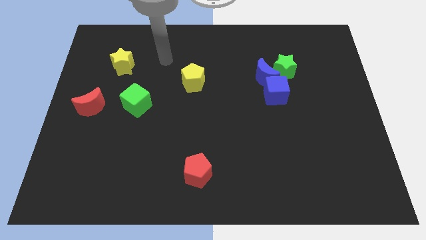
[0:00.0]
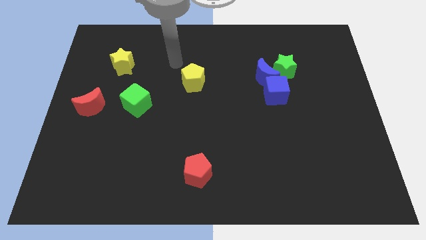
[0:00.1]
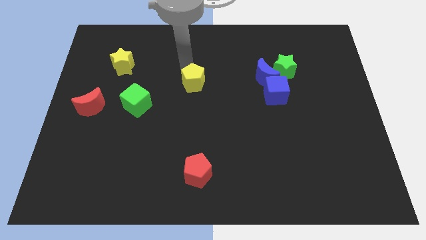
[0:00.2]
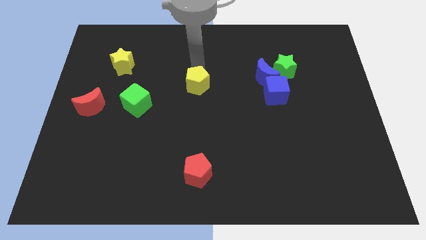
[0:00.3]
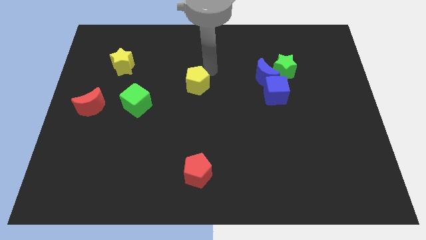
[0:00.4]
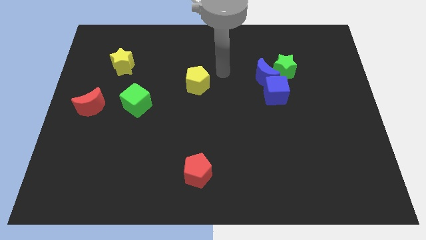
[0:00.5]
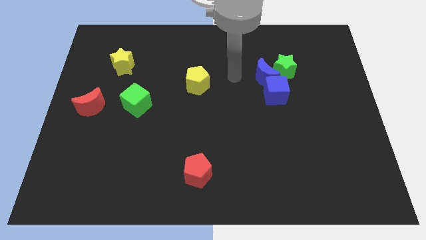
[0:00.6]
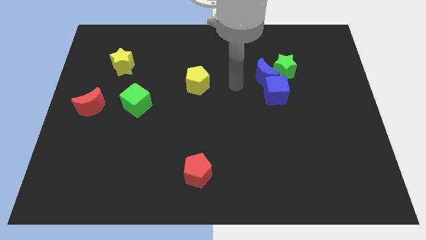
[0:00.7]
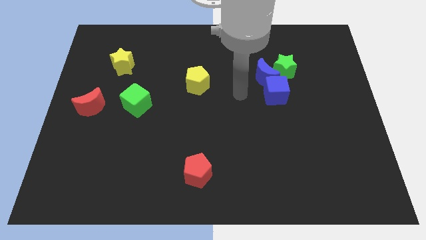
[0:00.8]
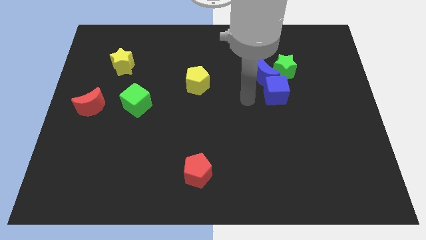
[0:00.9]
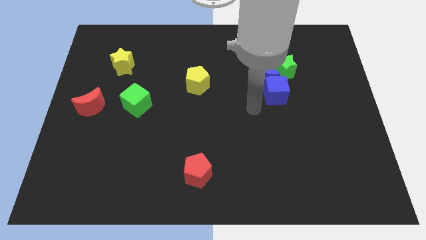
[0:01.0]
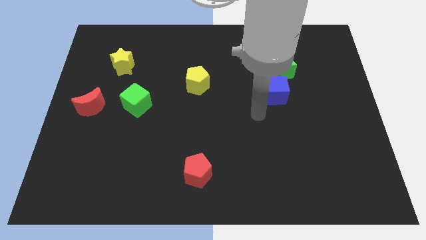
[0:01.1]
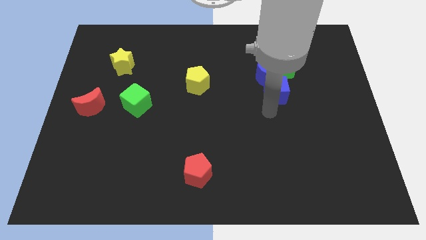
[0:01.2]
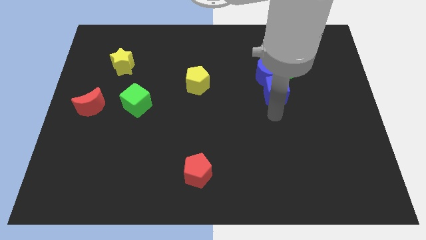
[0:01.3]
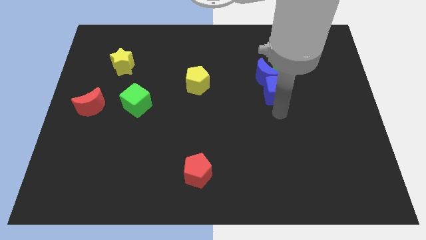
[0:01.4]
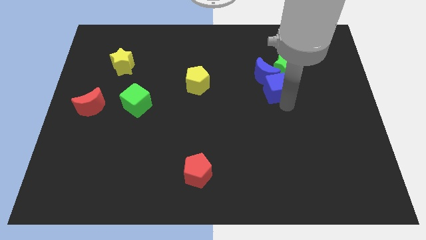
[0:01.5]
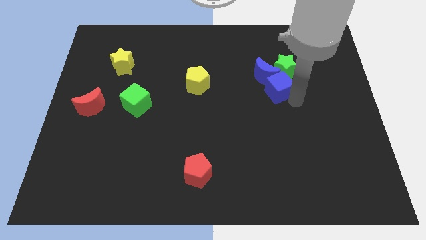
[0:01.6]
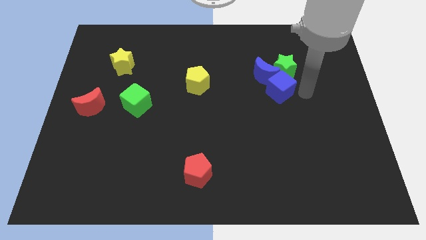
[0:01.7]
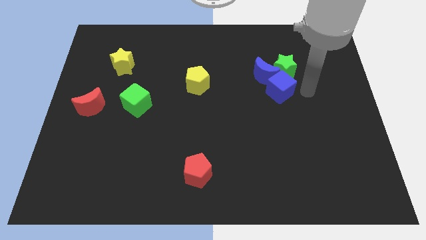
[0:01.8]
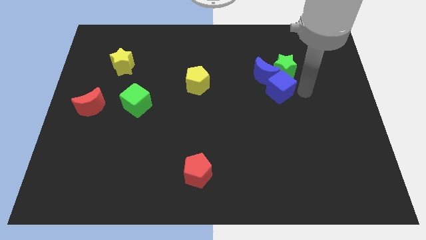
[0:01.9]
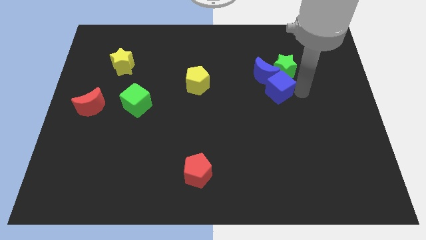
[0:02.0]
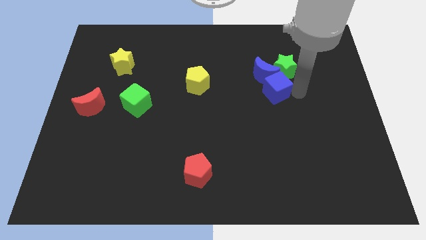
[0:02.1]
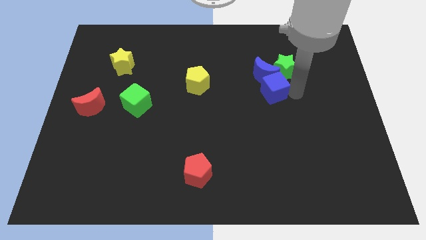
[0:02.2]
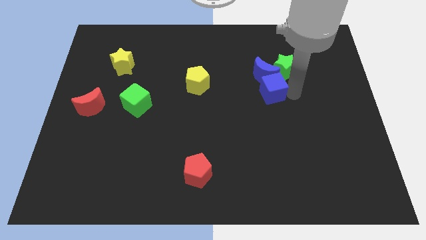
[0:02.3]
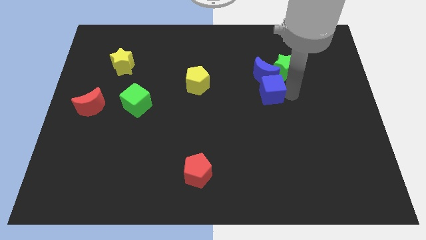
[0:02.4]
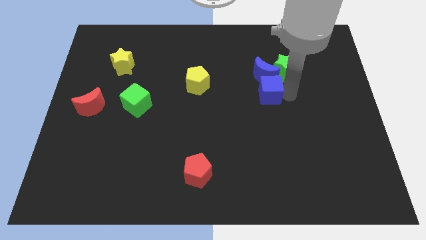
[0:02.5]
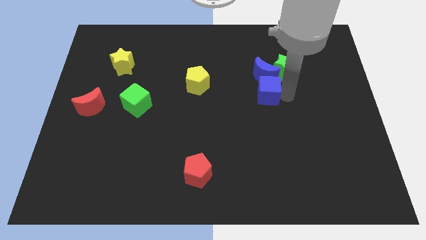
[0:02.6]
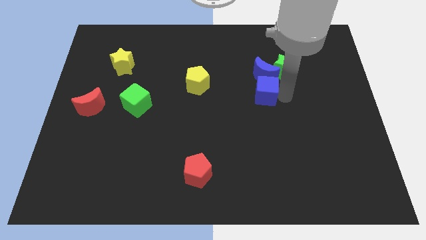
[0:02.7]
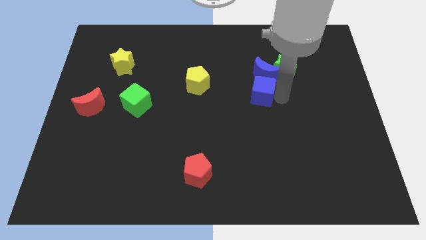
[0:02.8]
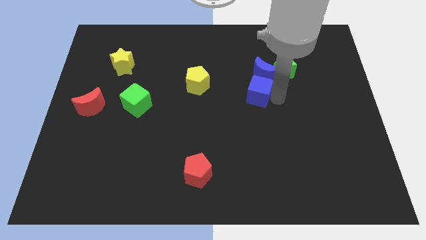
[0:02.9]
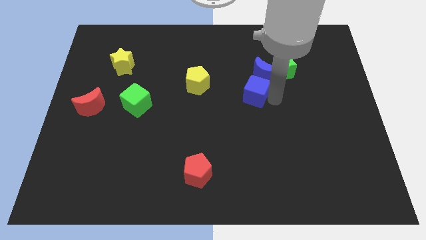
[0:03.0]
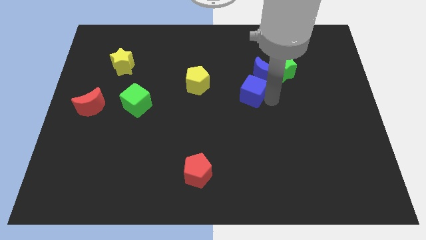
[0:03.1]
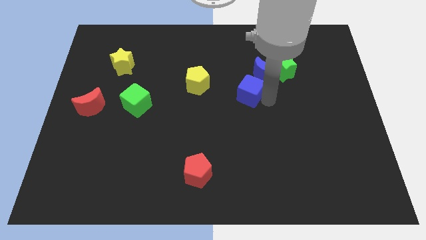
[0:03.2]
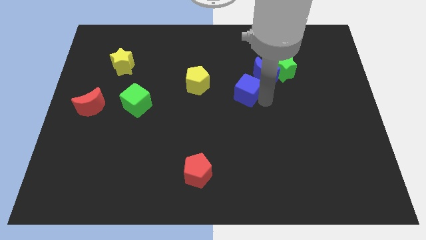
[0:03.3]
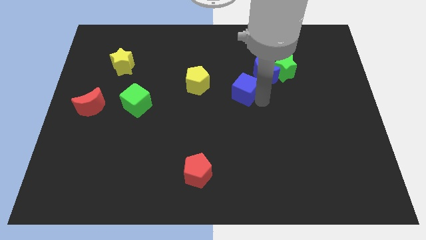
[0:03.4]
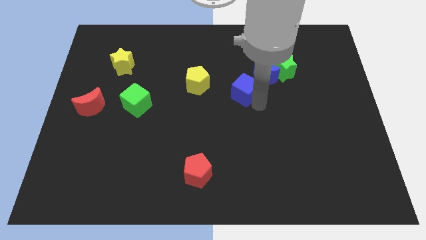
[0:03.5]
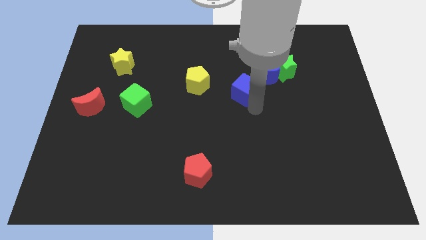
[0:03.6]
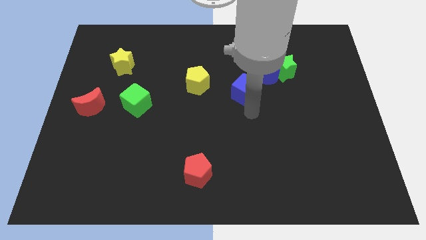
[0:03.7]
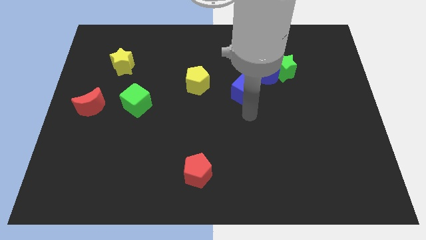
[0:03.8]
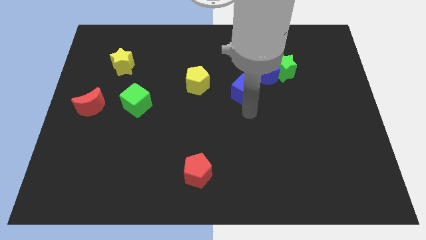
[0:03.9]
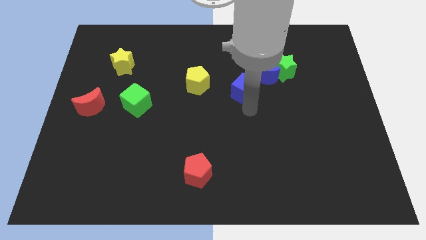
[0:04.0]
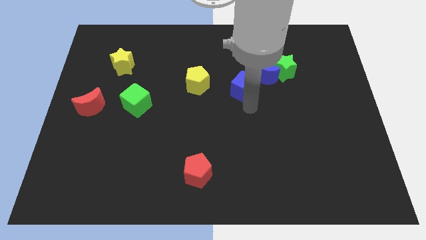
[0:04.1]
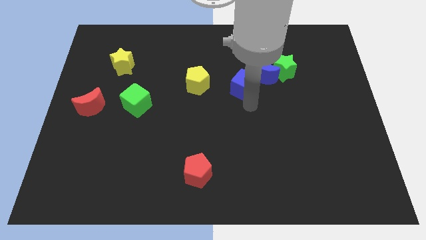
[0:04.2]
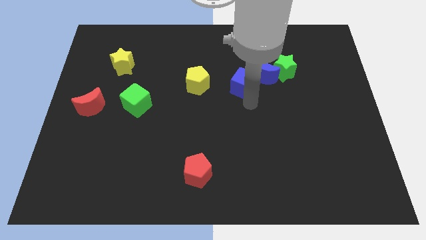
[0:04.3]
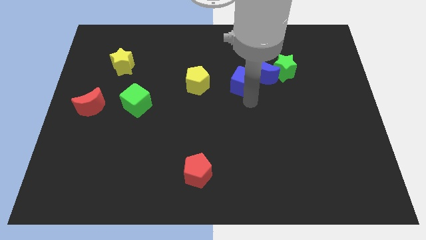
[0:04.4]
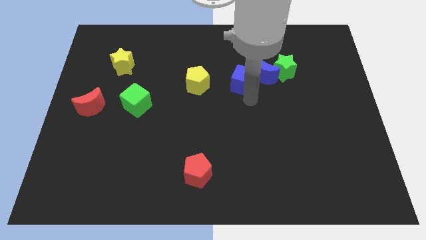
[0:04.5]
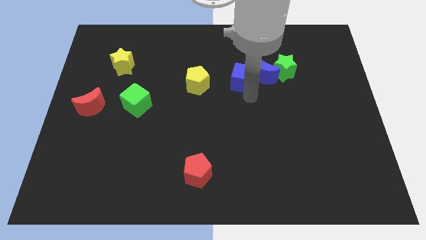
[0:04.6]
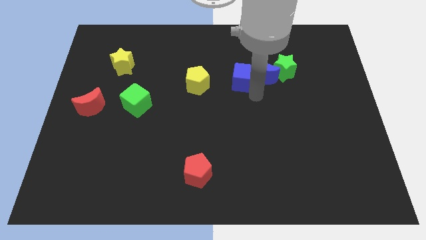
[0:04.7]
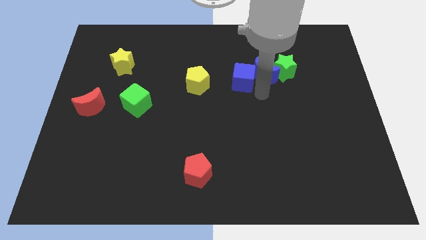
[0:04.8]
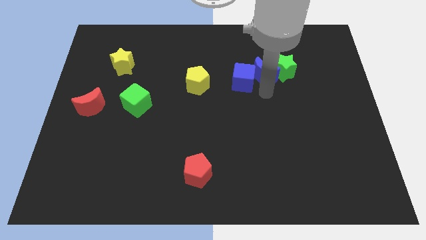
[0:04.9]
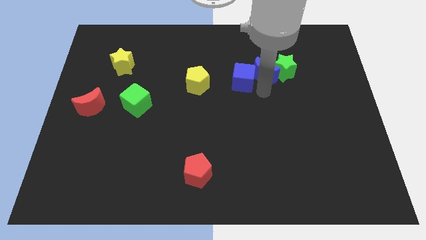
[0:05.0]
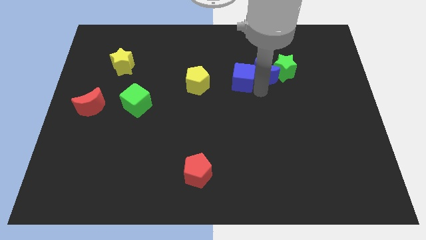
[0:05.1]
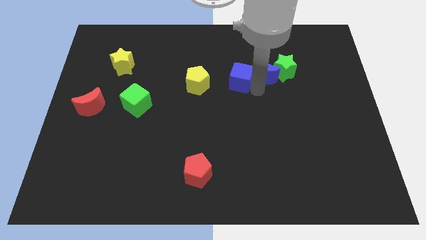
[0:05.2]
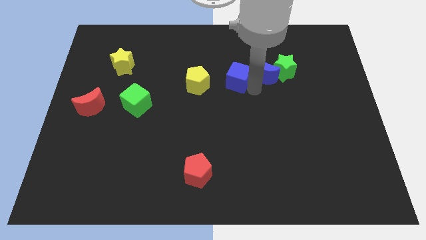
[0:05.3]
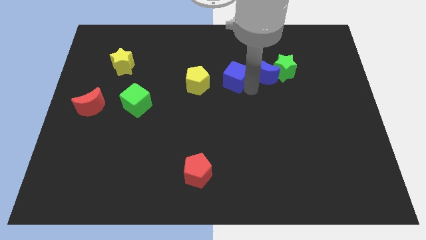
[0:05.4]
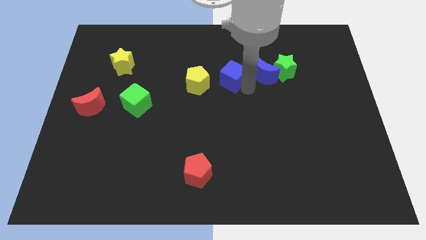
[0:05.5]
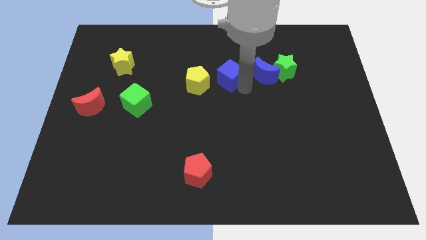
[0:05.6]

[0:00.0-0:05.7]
slide the blue cube to the top right side of the yellow pentagon

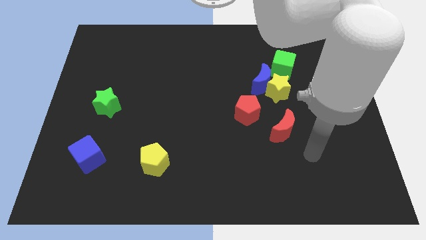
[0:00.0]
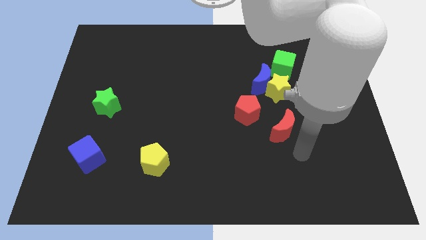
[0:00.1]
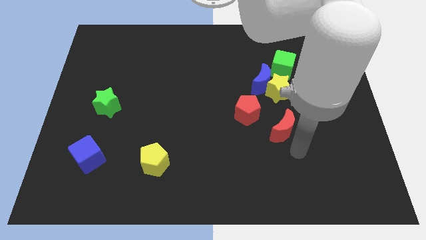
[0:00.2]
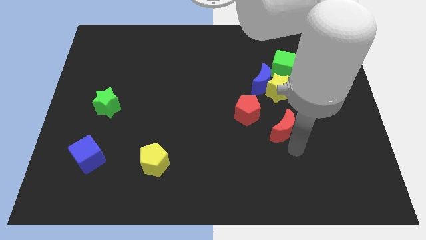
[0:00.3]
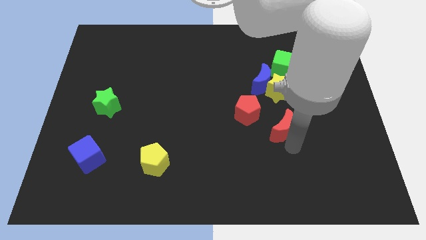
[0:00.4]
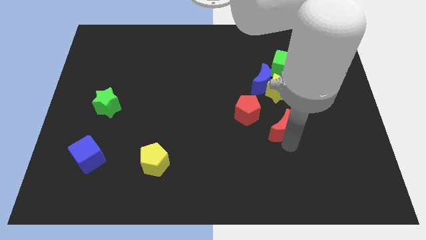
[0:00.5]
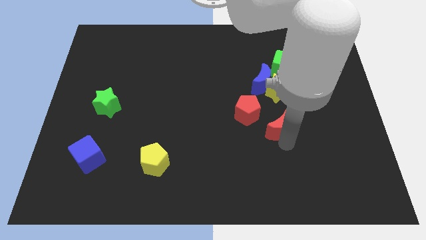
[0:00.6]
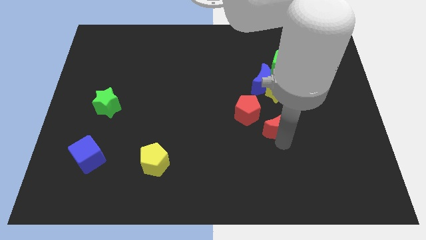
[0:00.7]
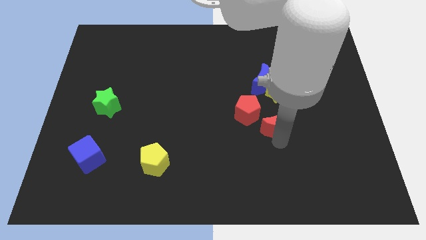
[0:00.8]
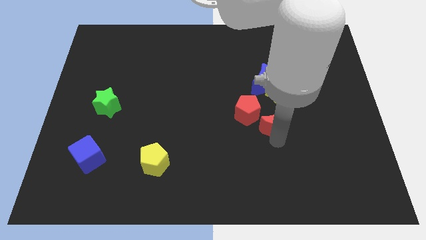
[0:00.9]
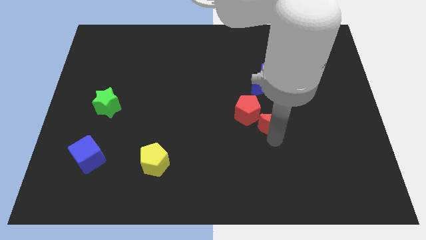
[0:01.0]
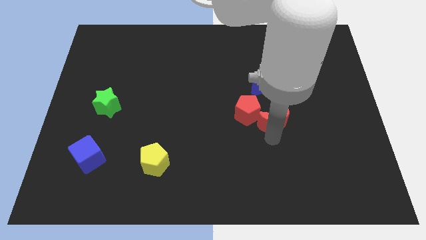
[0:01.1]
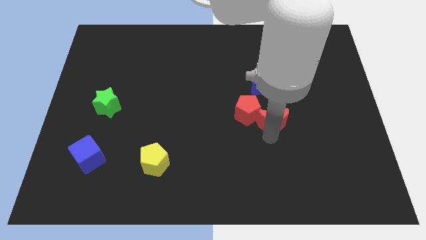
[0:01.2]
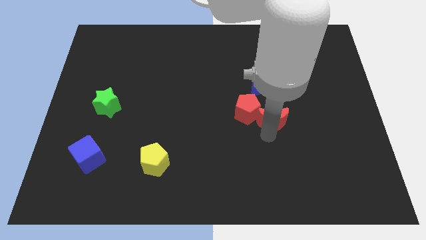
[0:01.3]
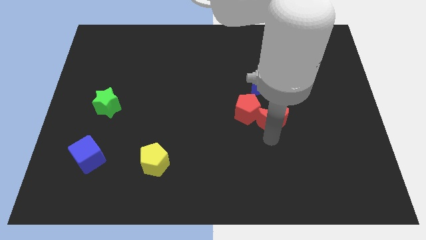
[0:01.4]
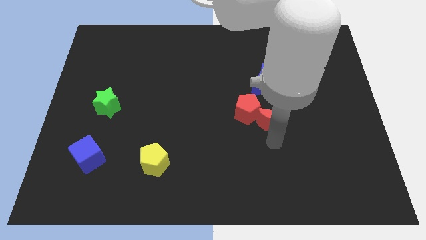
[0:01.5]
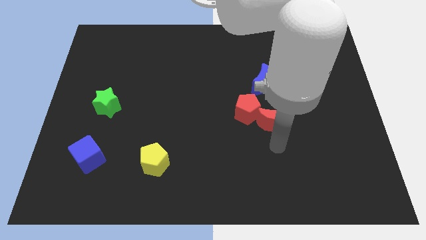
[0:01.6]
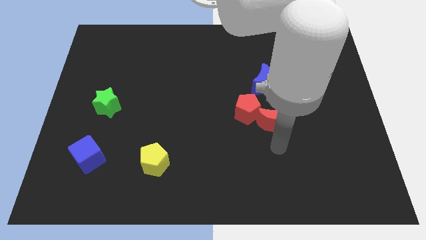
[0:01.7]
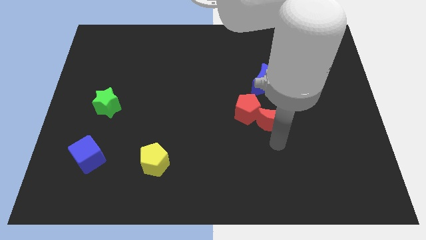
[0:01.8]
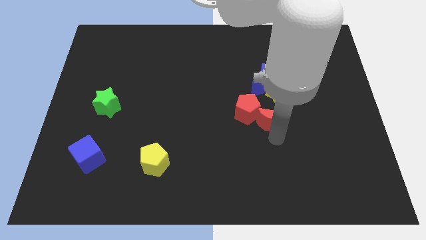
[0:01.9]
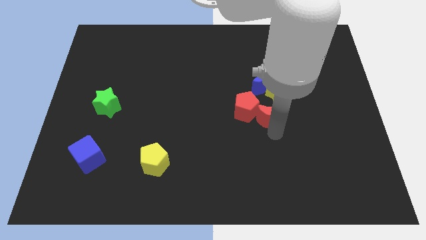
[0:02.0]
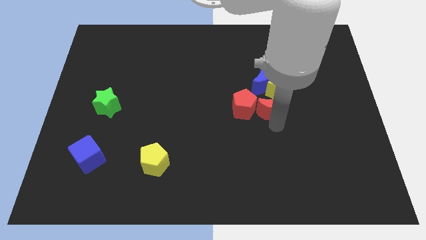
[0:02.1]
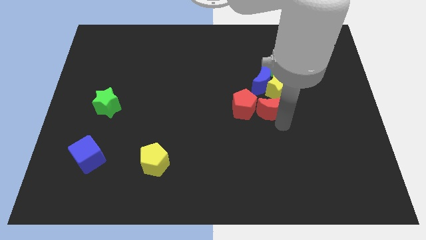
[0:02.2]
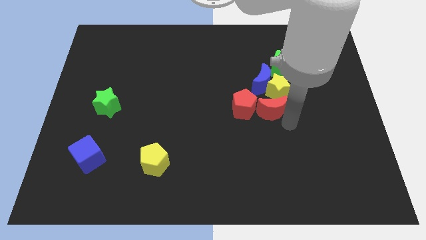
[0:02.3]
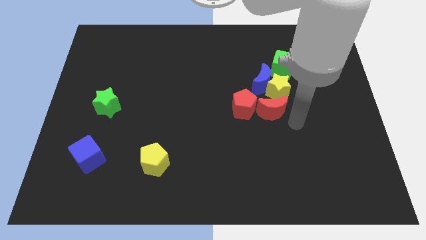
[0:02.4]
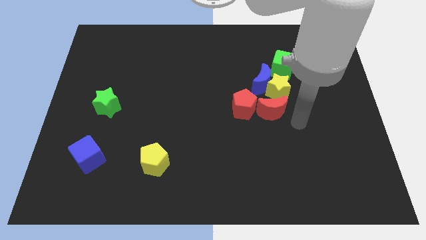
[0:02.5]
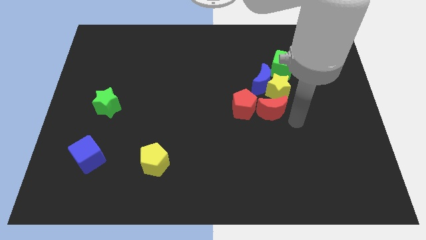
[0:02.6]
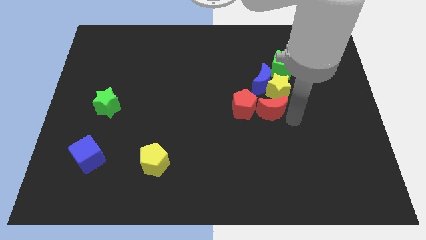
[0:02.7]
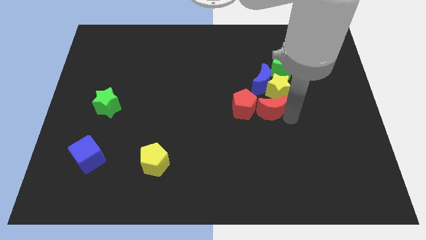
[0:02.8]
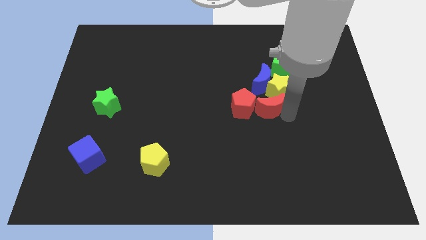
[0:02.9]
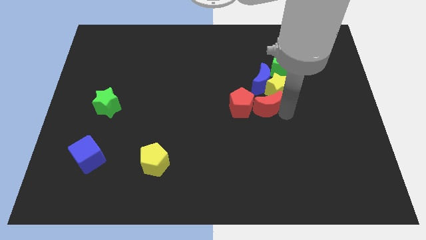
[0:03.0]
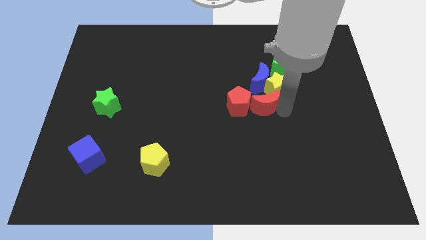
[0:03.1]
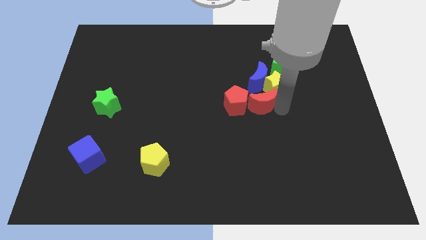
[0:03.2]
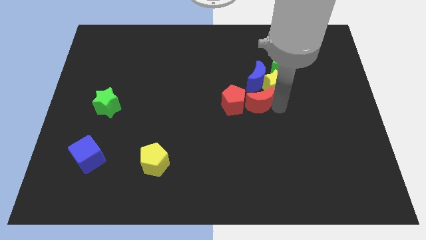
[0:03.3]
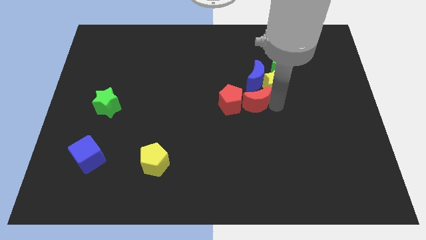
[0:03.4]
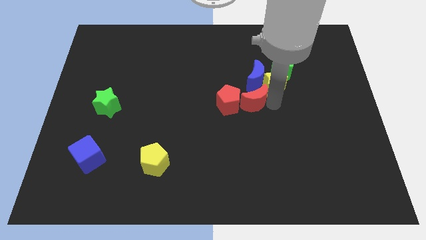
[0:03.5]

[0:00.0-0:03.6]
put the red moon diagonally down and to the left of the blue moon
